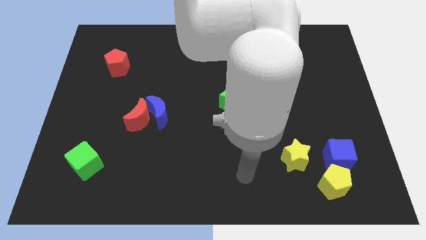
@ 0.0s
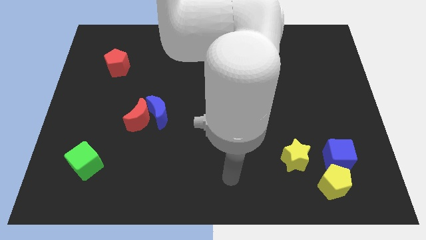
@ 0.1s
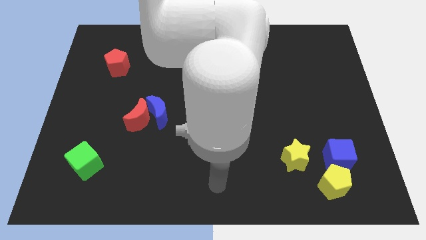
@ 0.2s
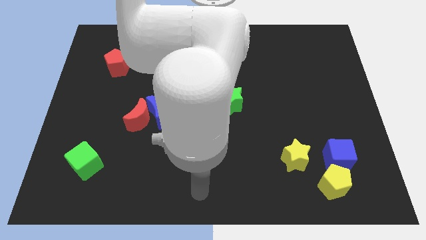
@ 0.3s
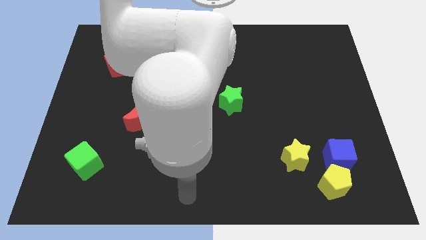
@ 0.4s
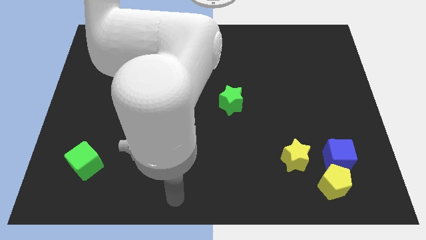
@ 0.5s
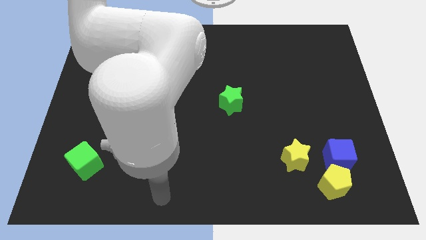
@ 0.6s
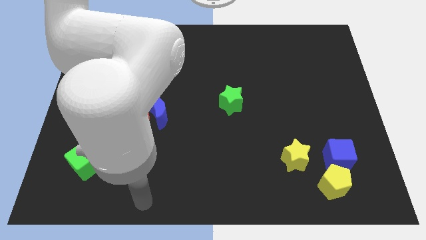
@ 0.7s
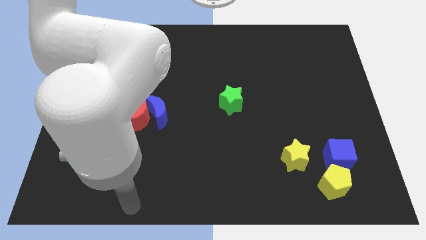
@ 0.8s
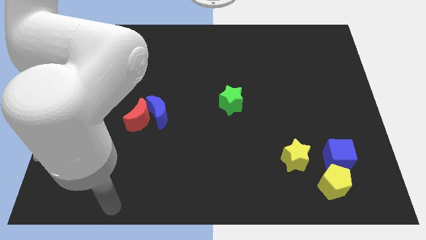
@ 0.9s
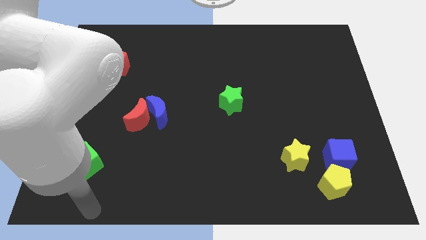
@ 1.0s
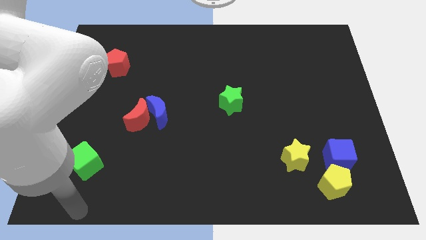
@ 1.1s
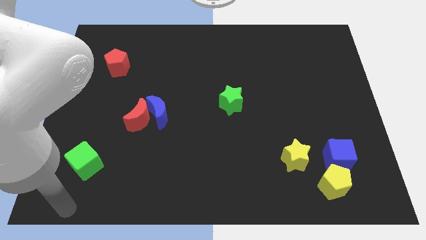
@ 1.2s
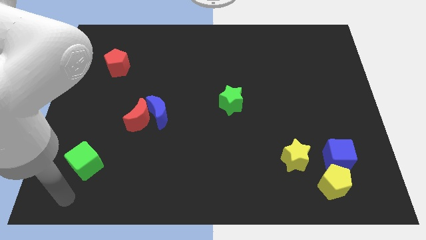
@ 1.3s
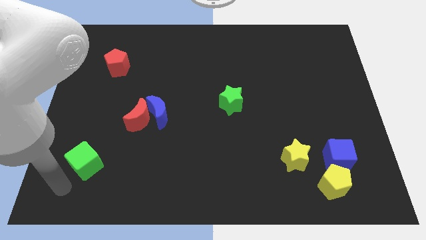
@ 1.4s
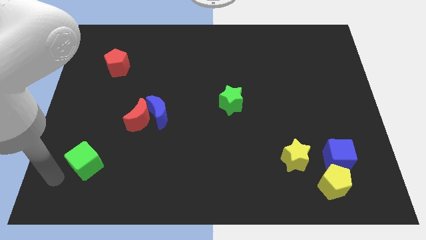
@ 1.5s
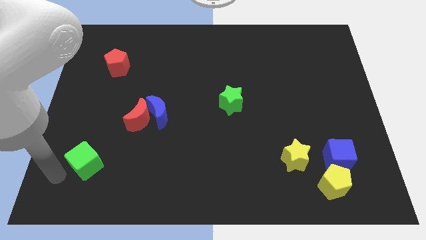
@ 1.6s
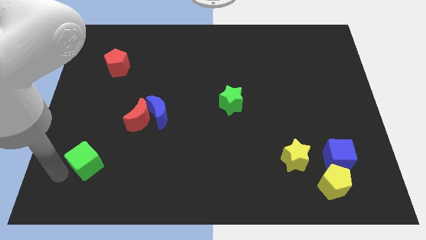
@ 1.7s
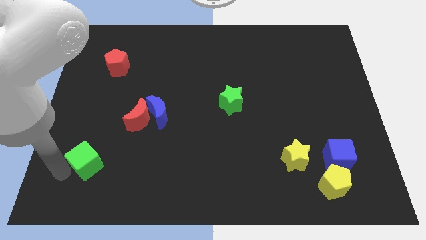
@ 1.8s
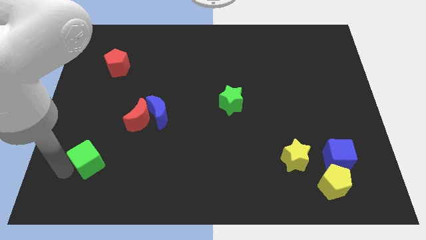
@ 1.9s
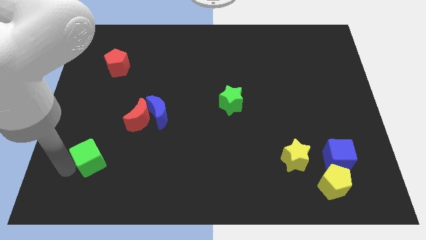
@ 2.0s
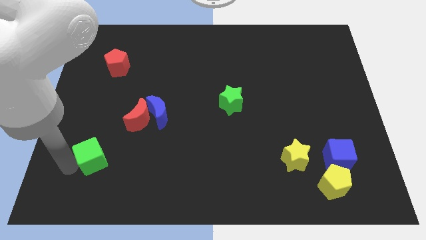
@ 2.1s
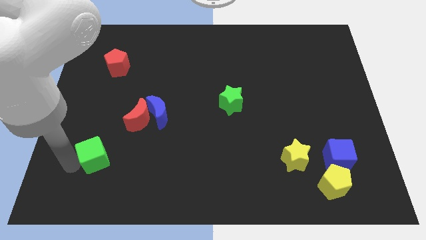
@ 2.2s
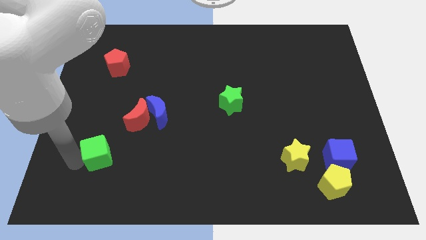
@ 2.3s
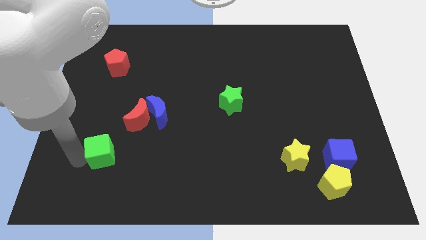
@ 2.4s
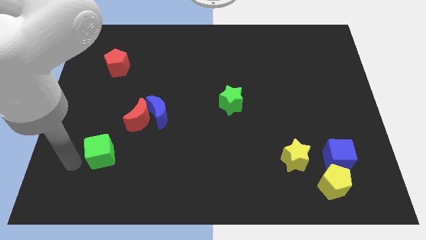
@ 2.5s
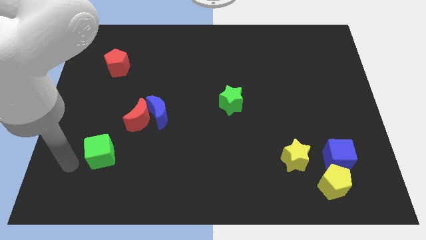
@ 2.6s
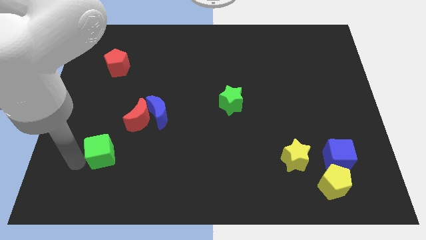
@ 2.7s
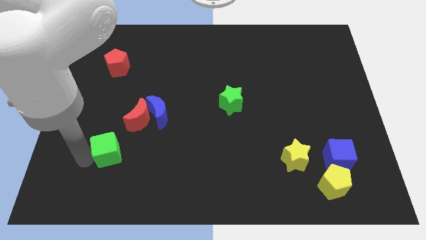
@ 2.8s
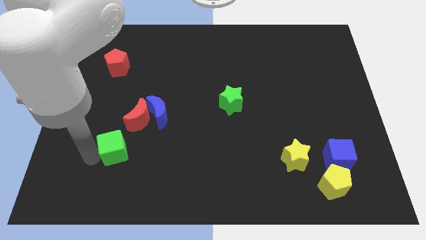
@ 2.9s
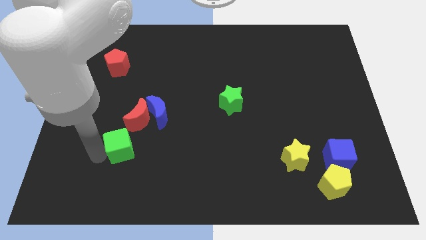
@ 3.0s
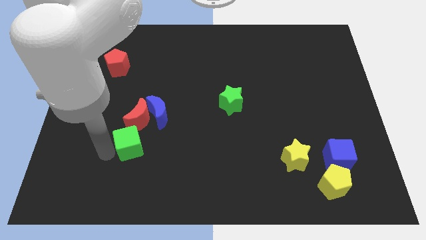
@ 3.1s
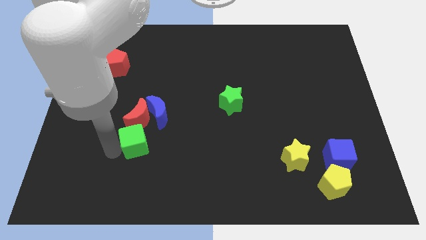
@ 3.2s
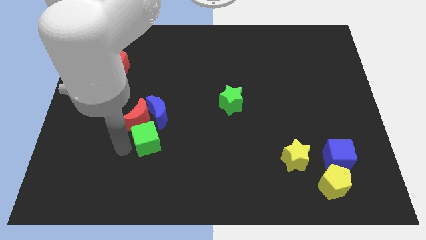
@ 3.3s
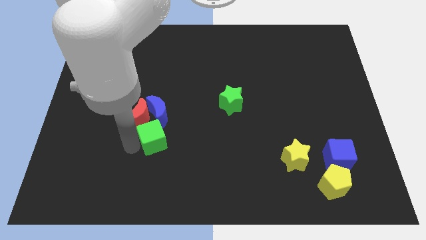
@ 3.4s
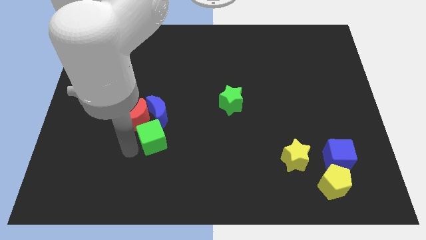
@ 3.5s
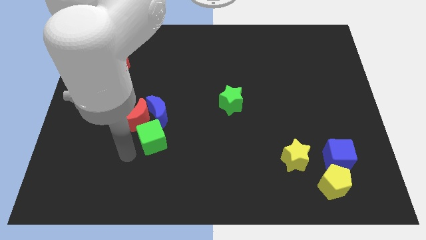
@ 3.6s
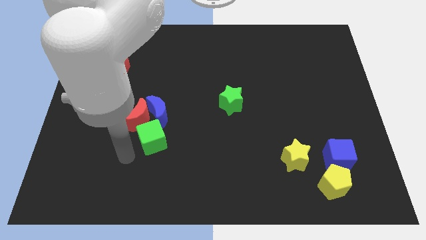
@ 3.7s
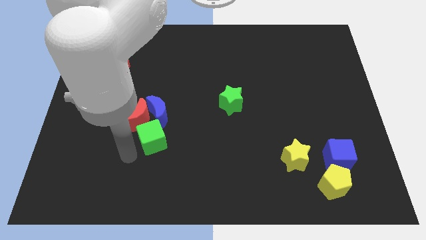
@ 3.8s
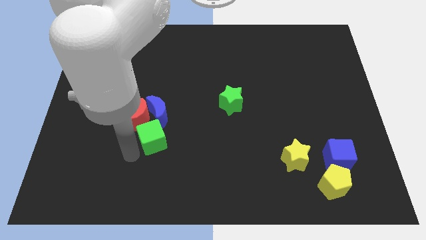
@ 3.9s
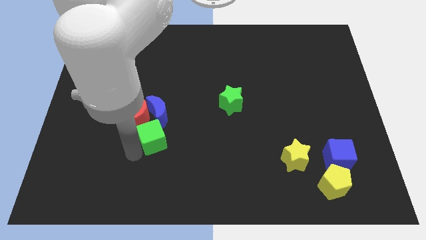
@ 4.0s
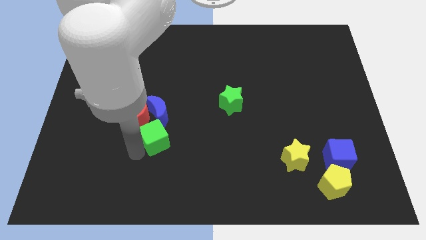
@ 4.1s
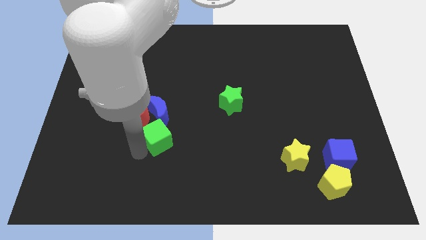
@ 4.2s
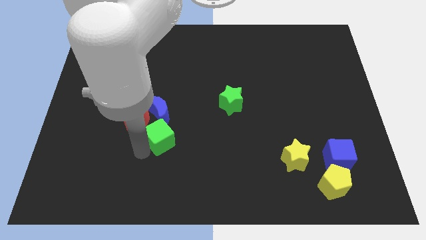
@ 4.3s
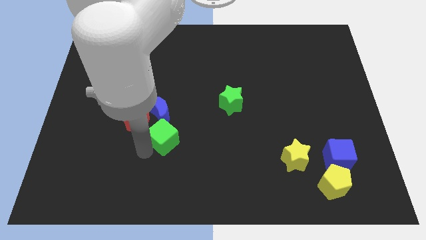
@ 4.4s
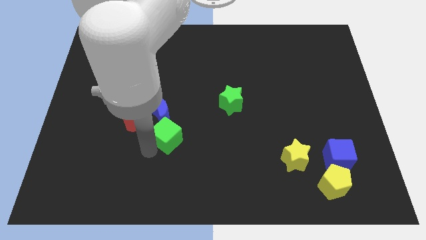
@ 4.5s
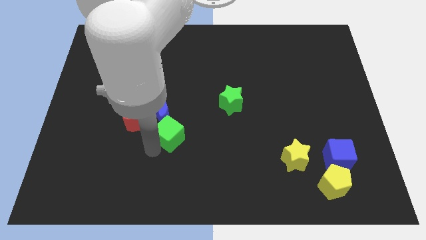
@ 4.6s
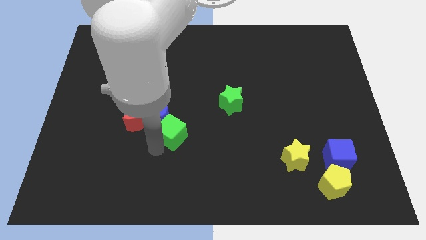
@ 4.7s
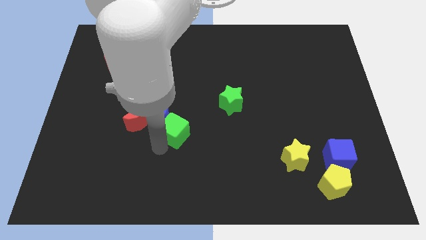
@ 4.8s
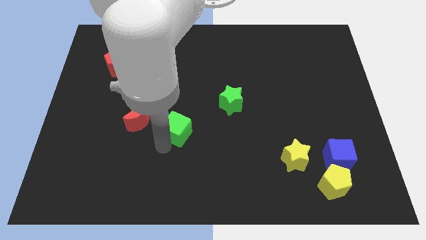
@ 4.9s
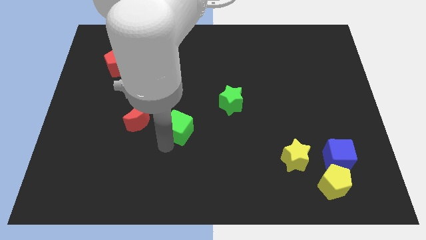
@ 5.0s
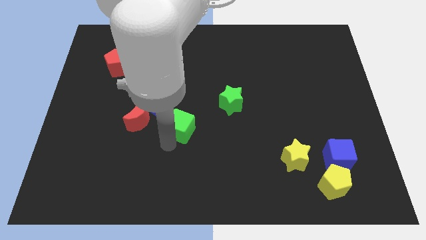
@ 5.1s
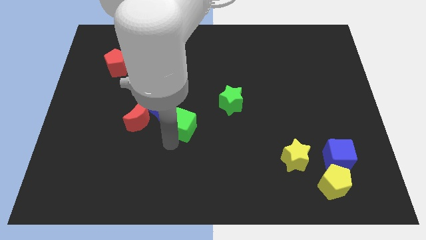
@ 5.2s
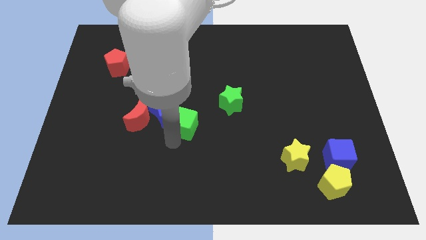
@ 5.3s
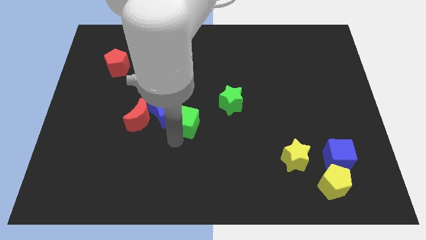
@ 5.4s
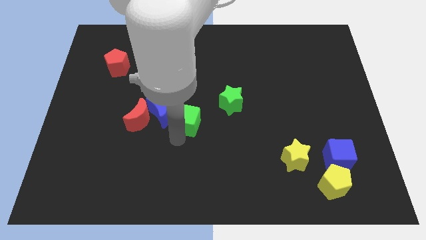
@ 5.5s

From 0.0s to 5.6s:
move the green cube diagonally upwards and to the right

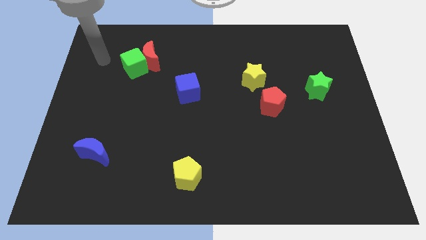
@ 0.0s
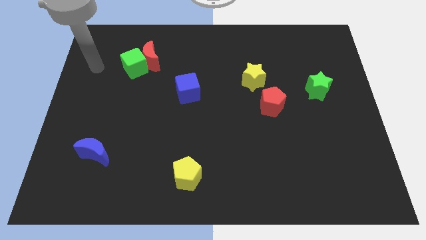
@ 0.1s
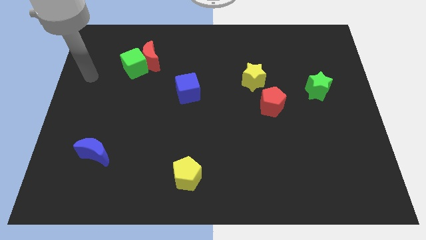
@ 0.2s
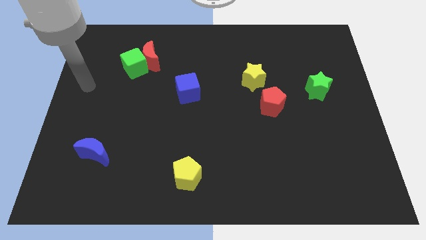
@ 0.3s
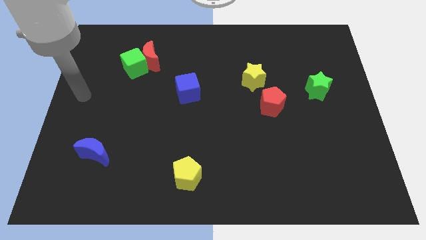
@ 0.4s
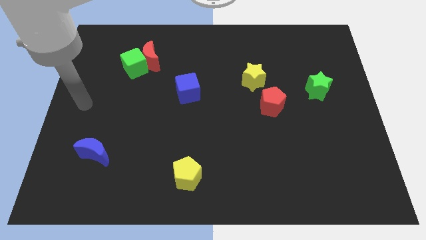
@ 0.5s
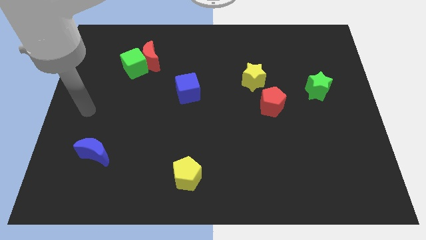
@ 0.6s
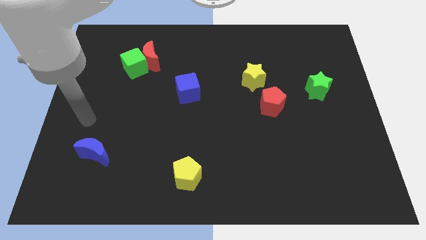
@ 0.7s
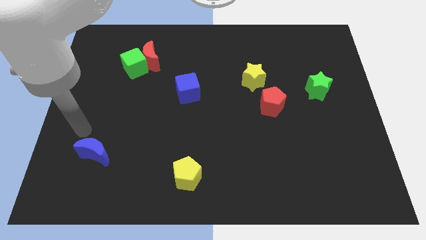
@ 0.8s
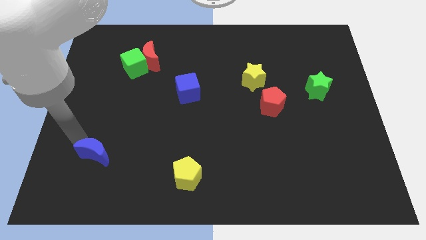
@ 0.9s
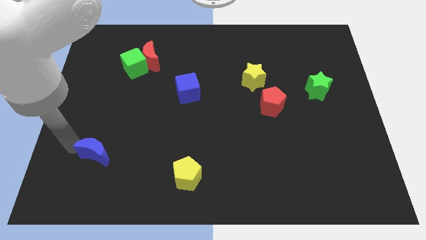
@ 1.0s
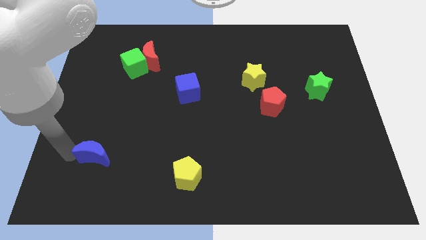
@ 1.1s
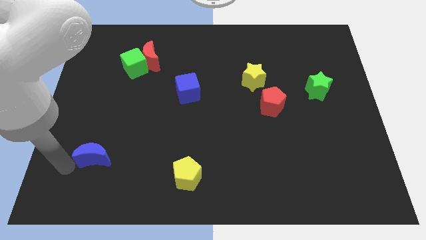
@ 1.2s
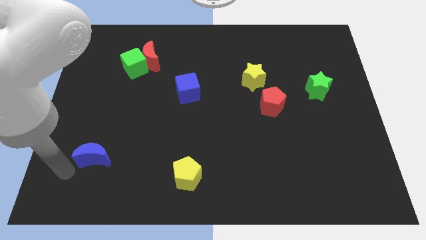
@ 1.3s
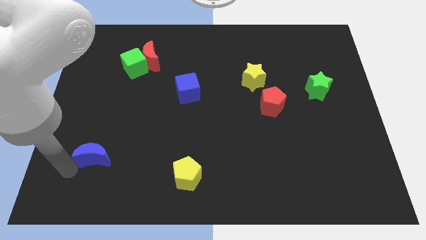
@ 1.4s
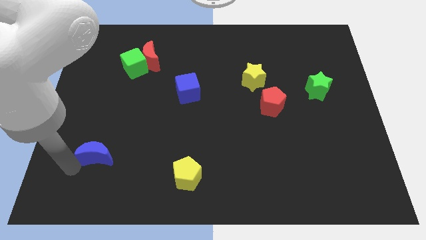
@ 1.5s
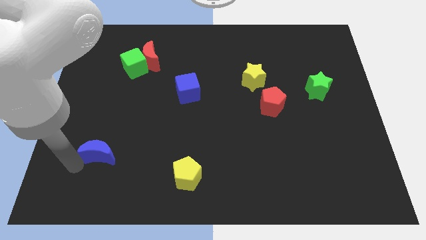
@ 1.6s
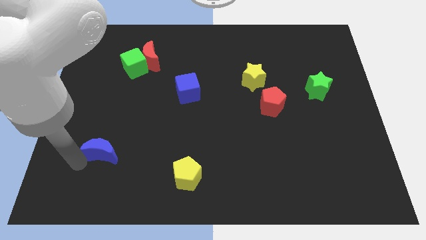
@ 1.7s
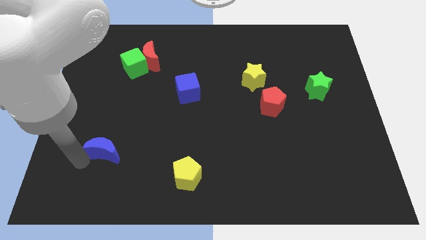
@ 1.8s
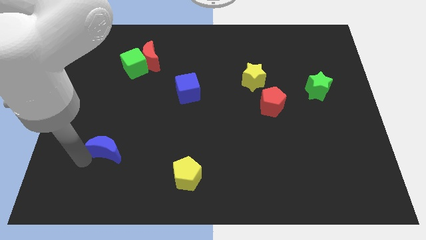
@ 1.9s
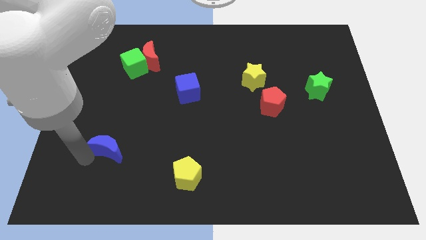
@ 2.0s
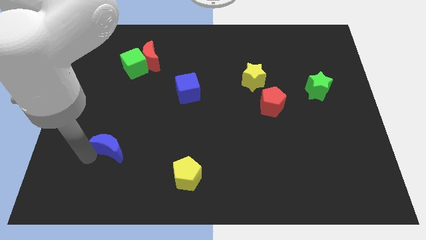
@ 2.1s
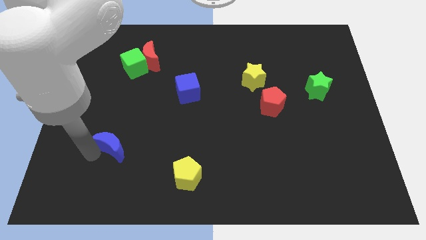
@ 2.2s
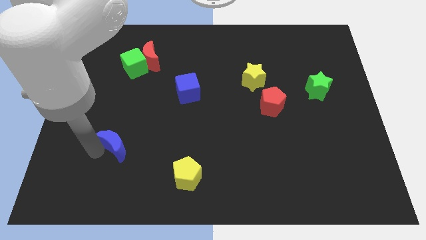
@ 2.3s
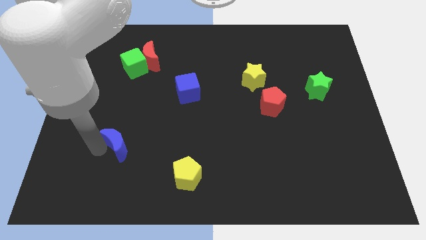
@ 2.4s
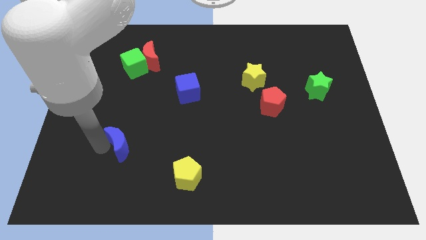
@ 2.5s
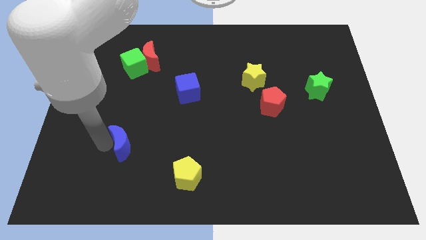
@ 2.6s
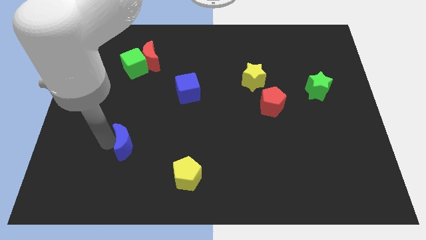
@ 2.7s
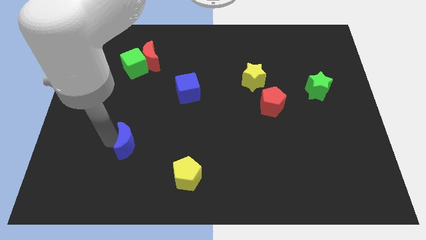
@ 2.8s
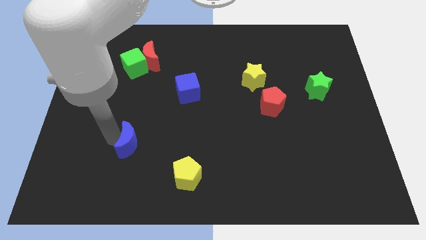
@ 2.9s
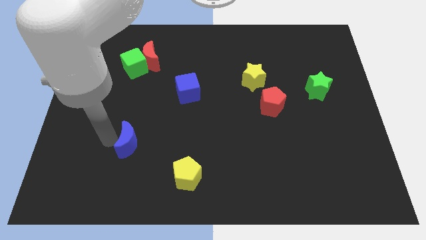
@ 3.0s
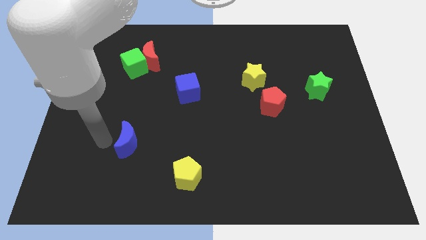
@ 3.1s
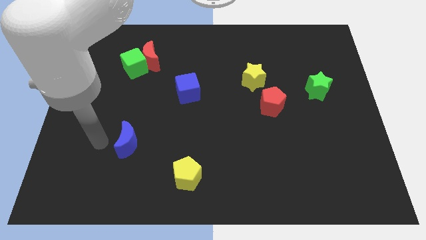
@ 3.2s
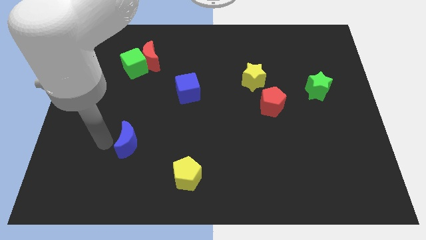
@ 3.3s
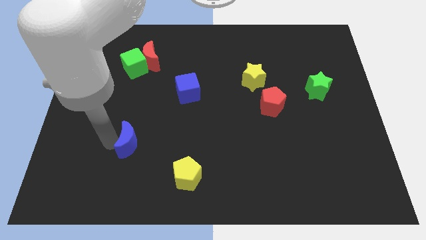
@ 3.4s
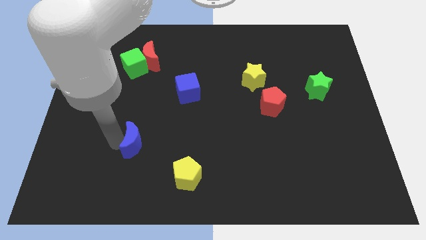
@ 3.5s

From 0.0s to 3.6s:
slide the blue moon right slightly
